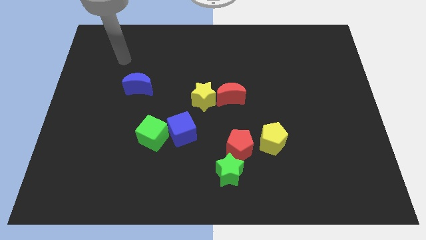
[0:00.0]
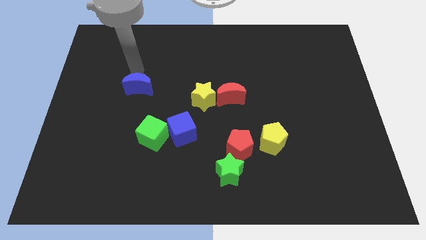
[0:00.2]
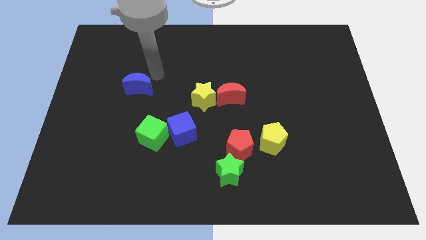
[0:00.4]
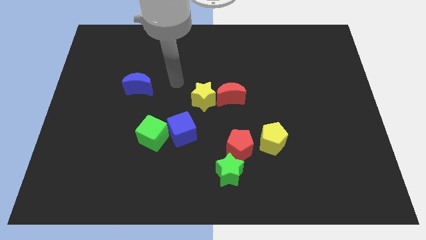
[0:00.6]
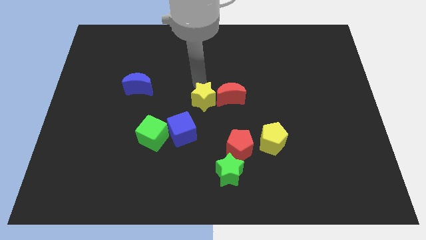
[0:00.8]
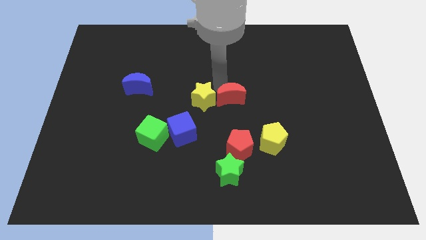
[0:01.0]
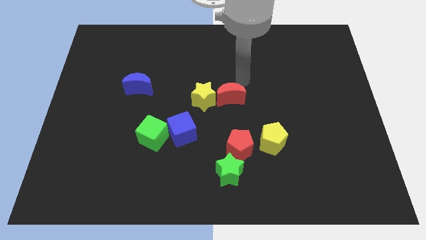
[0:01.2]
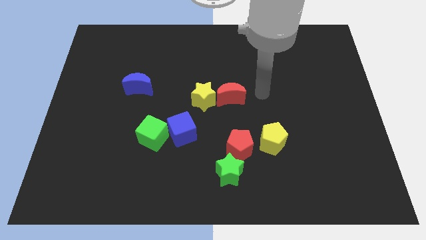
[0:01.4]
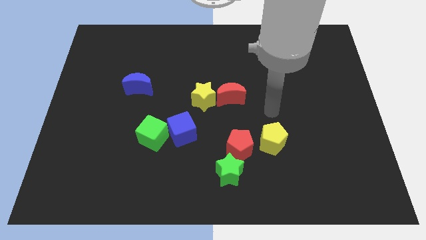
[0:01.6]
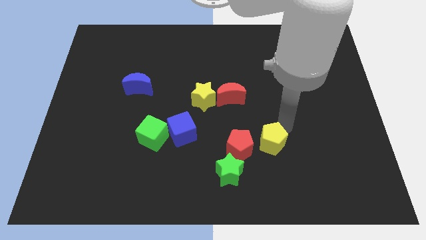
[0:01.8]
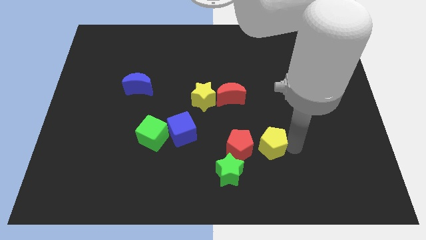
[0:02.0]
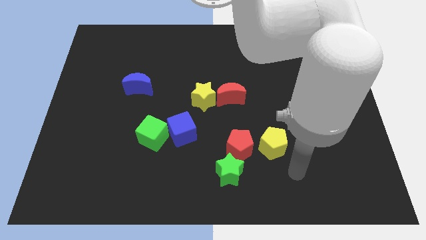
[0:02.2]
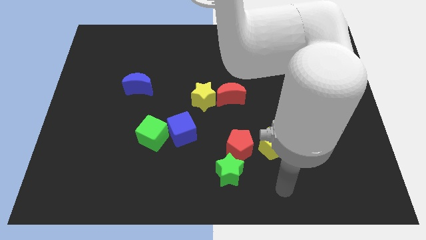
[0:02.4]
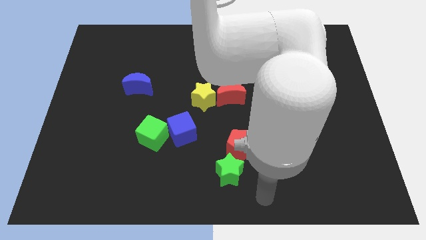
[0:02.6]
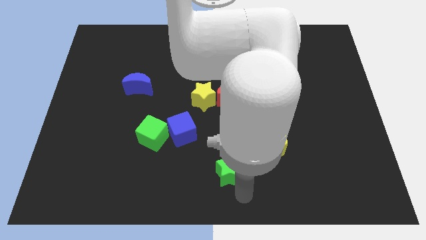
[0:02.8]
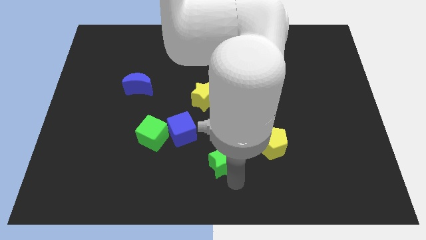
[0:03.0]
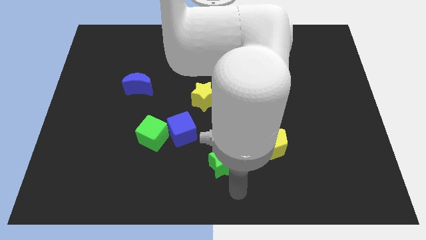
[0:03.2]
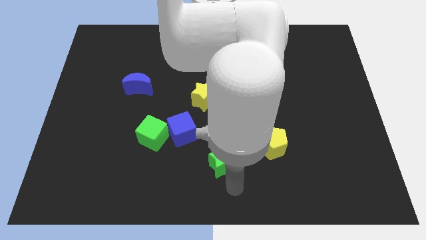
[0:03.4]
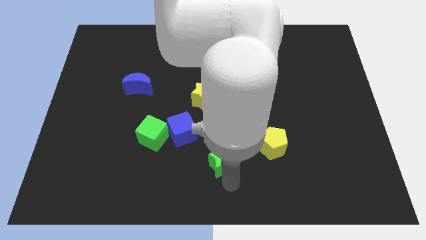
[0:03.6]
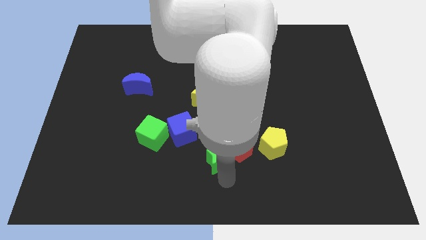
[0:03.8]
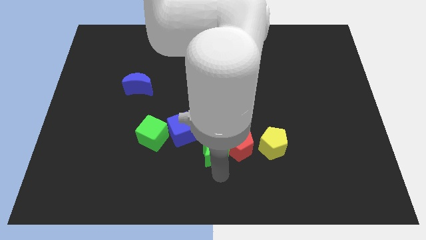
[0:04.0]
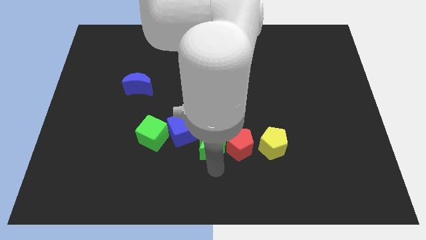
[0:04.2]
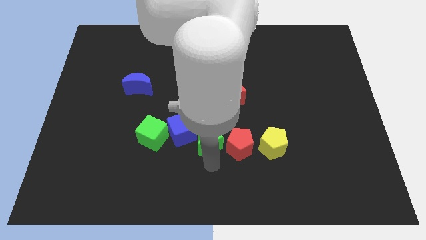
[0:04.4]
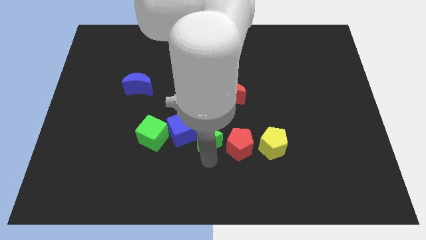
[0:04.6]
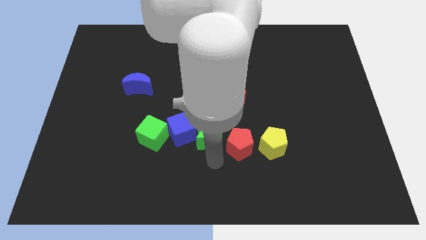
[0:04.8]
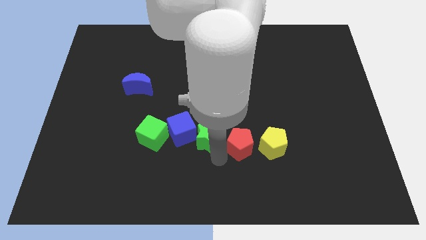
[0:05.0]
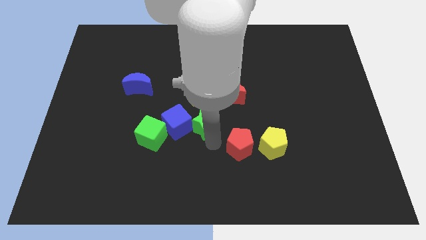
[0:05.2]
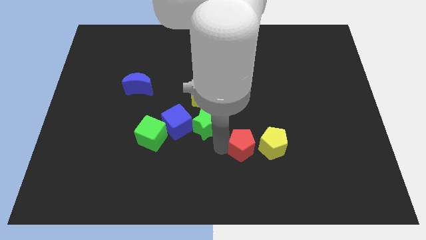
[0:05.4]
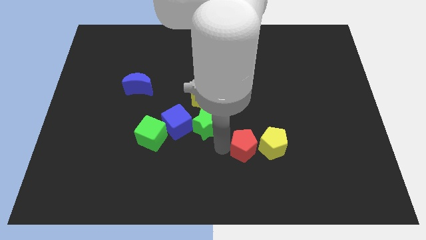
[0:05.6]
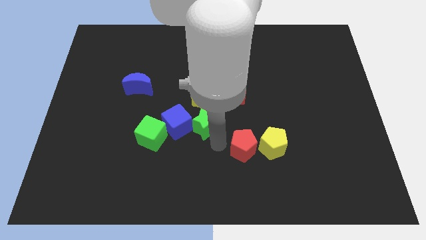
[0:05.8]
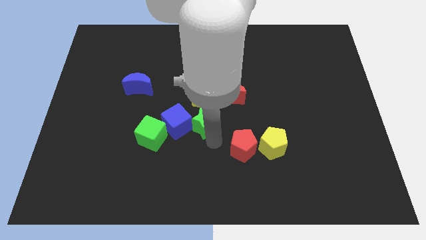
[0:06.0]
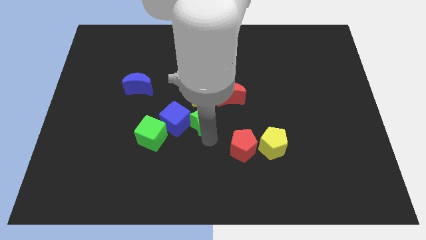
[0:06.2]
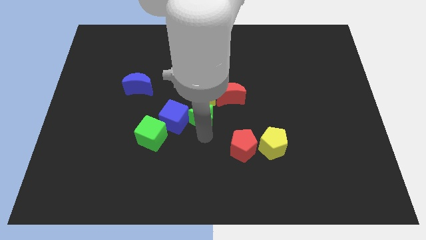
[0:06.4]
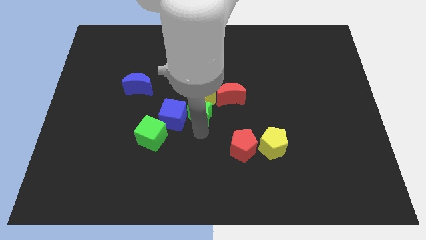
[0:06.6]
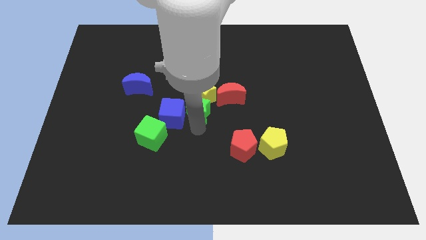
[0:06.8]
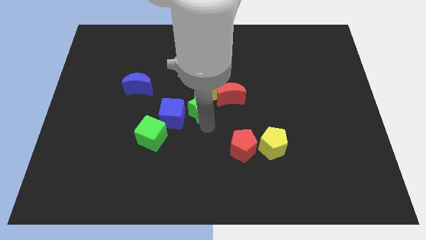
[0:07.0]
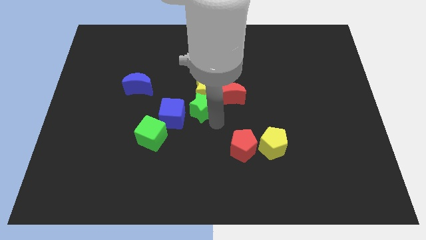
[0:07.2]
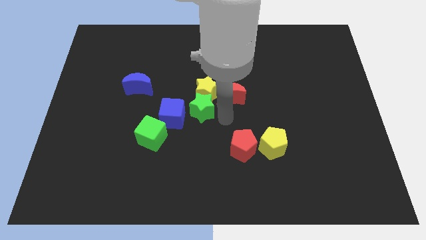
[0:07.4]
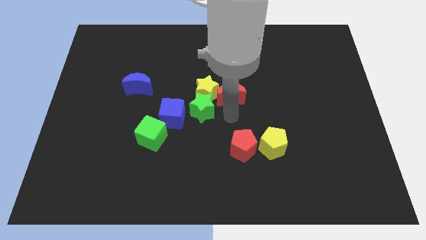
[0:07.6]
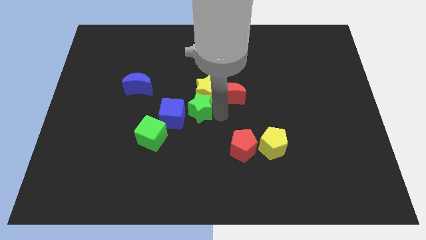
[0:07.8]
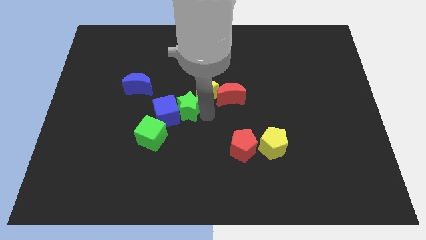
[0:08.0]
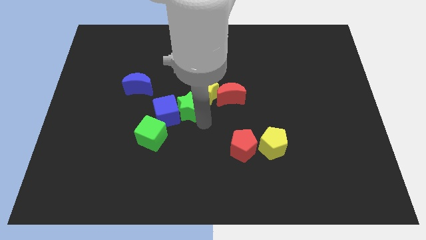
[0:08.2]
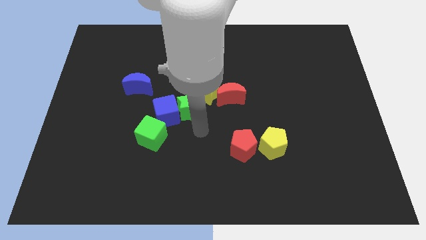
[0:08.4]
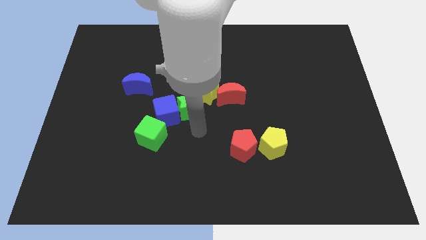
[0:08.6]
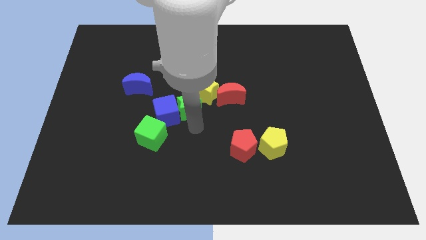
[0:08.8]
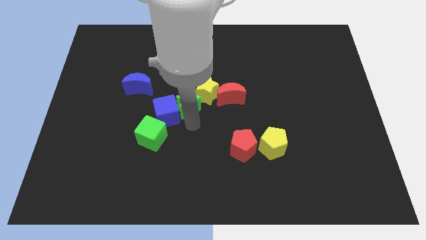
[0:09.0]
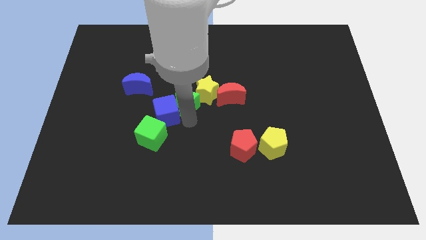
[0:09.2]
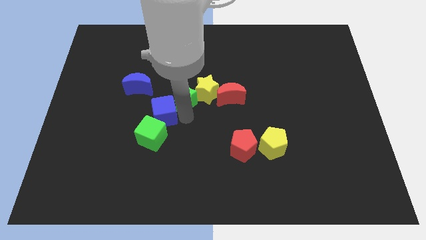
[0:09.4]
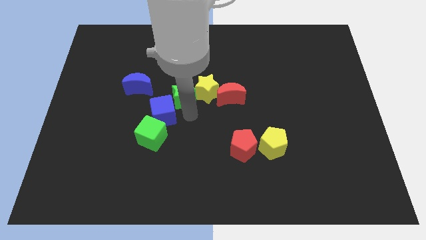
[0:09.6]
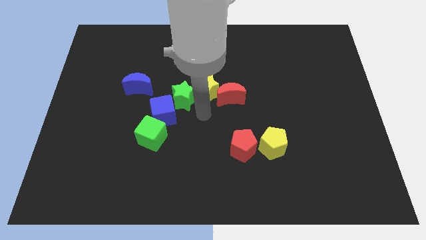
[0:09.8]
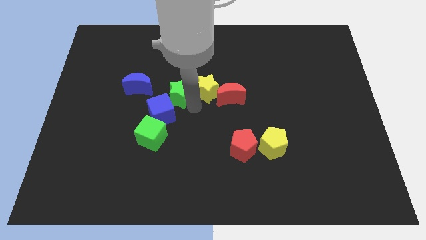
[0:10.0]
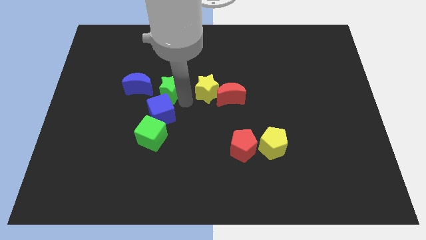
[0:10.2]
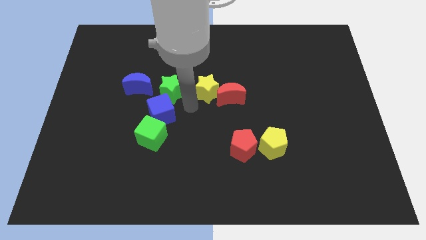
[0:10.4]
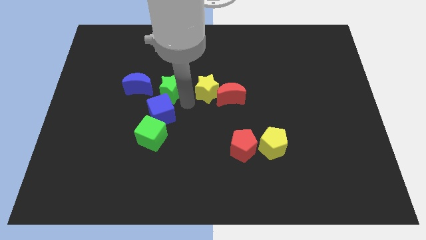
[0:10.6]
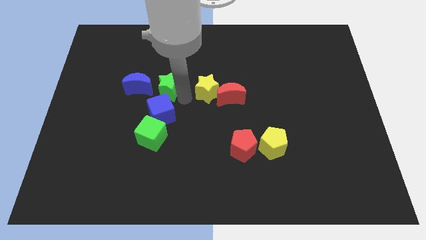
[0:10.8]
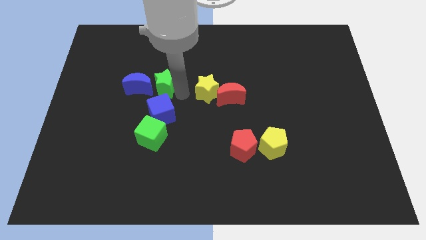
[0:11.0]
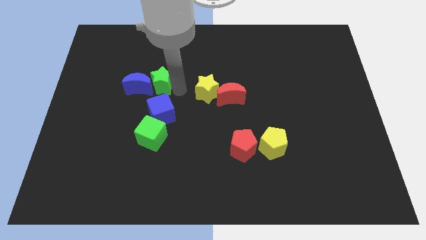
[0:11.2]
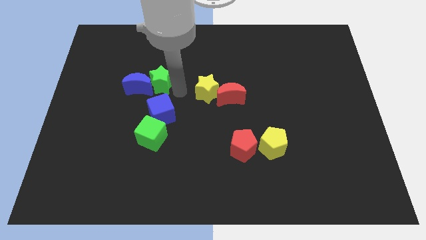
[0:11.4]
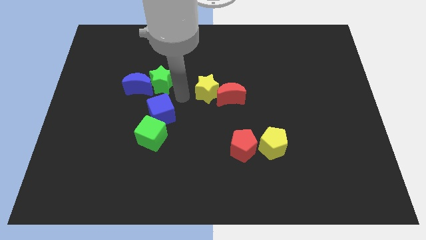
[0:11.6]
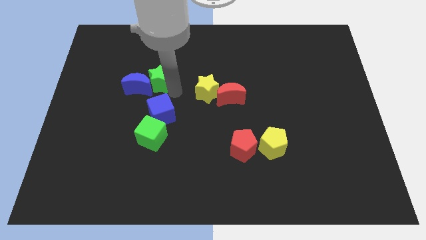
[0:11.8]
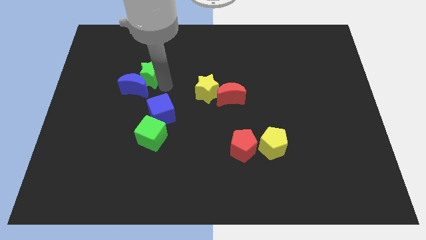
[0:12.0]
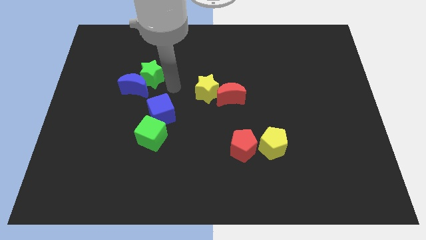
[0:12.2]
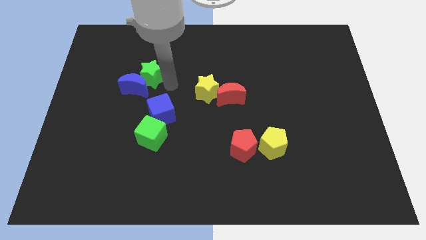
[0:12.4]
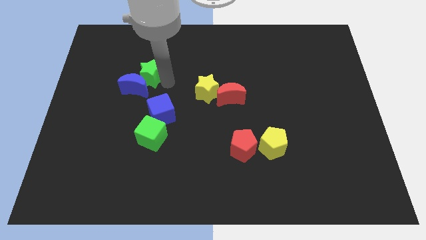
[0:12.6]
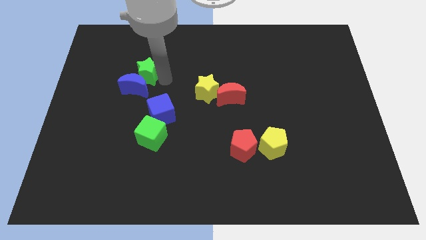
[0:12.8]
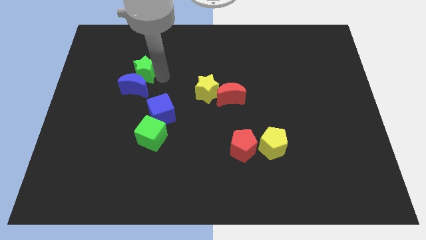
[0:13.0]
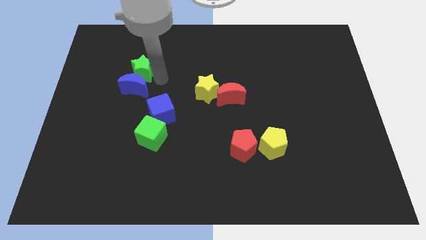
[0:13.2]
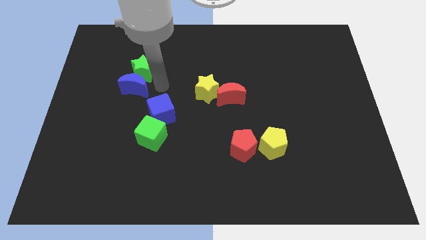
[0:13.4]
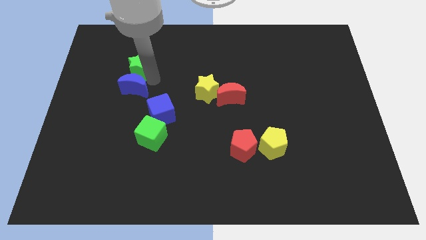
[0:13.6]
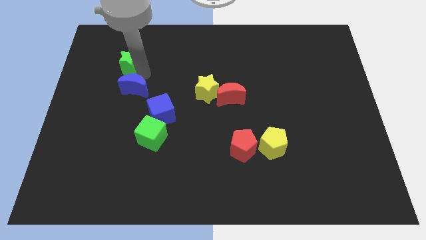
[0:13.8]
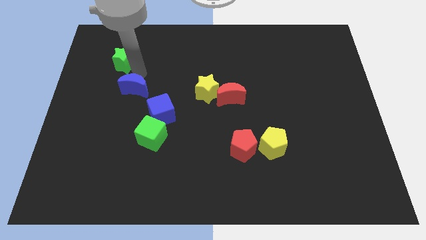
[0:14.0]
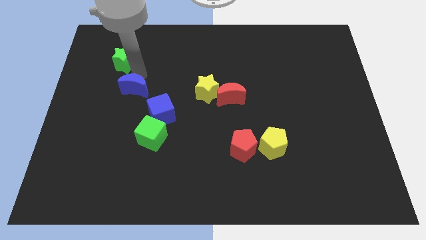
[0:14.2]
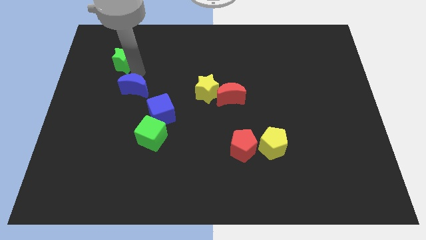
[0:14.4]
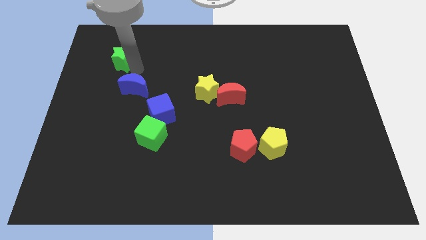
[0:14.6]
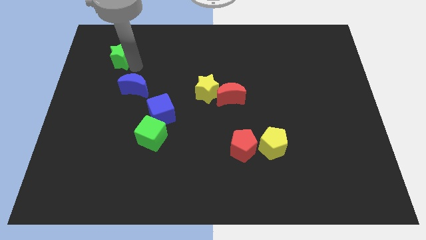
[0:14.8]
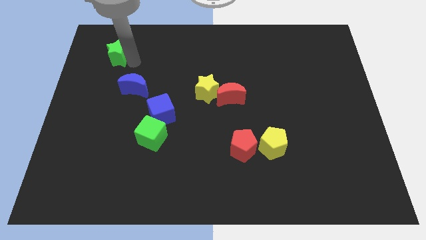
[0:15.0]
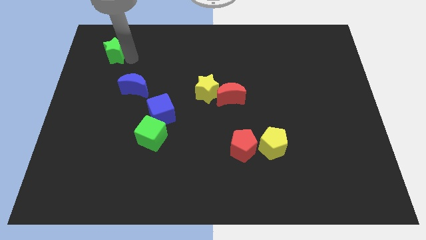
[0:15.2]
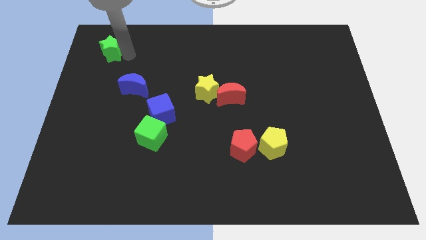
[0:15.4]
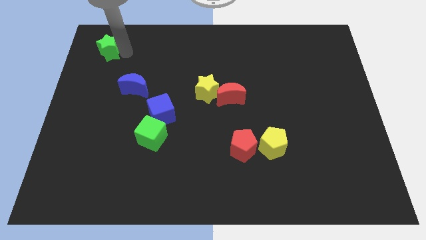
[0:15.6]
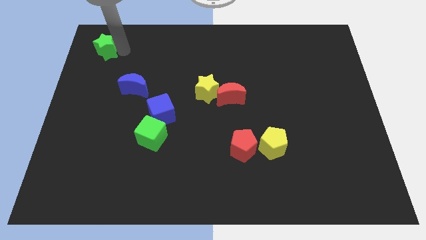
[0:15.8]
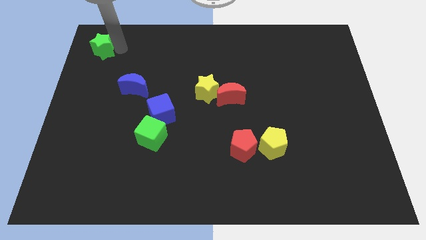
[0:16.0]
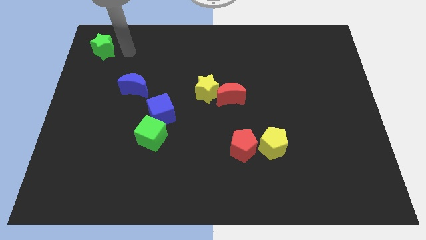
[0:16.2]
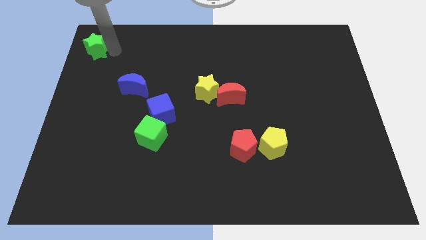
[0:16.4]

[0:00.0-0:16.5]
put the green star to the top left corner
